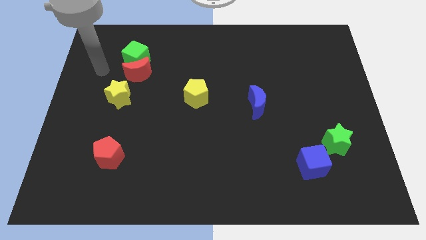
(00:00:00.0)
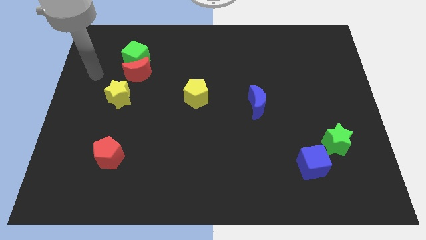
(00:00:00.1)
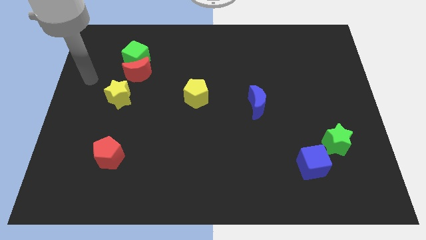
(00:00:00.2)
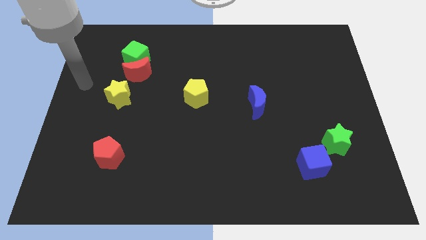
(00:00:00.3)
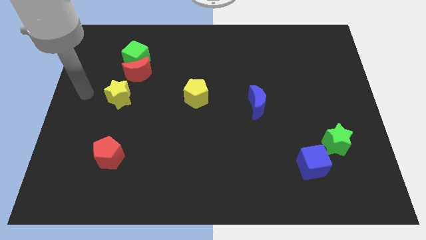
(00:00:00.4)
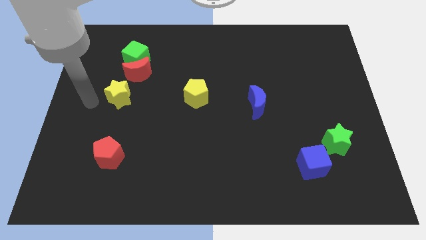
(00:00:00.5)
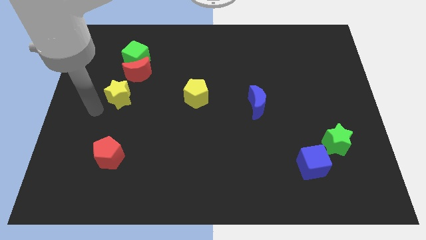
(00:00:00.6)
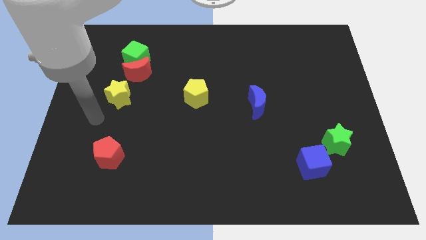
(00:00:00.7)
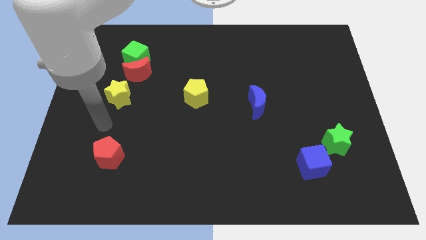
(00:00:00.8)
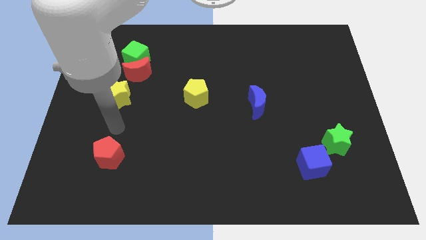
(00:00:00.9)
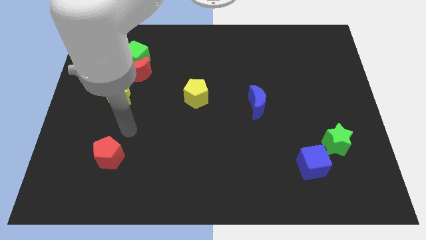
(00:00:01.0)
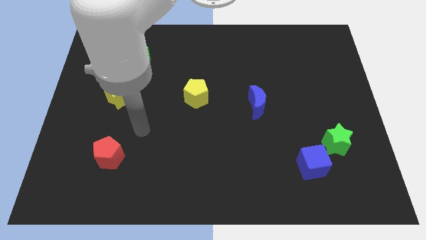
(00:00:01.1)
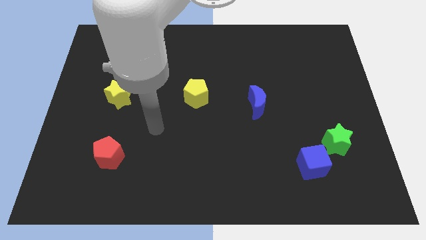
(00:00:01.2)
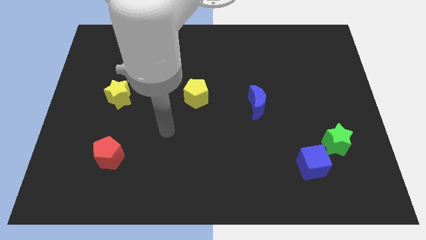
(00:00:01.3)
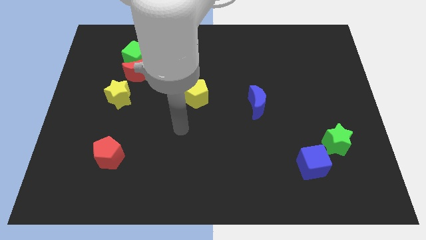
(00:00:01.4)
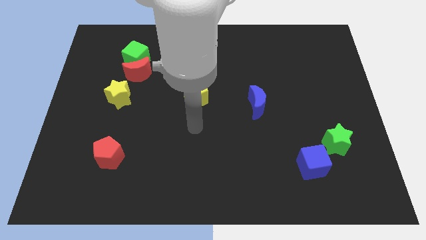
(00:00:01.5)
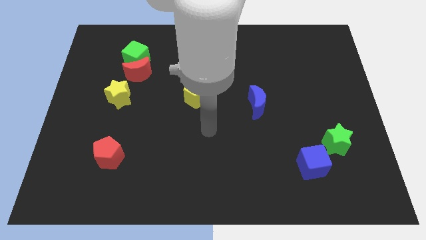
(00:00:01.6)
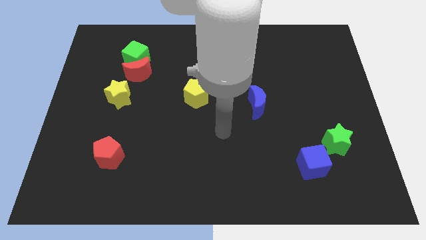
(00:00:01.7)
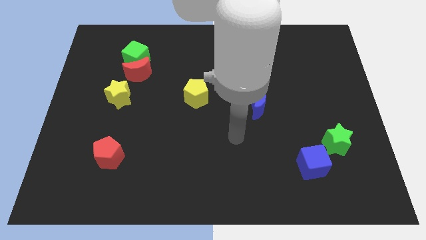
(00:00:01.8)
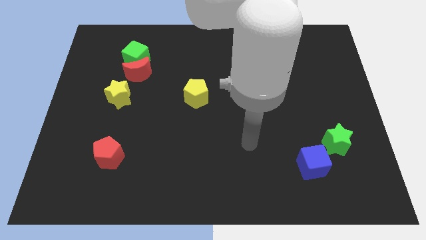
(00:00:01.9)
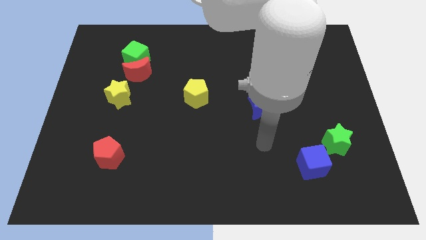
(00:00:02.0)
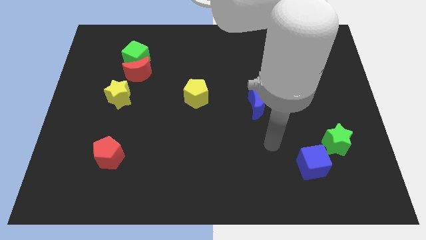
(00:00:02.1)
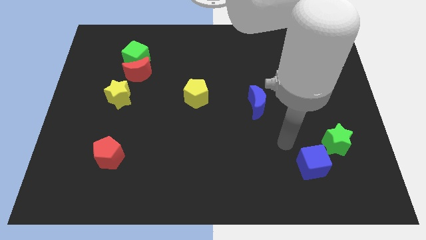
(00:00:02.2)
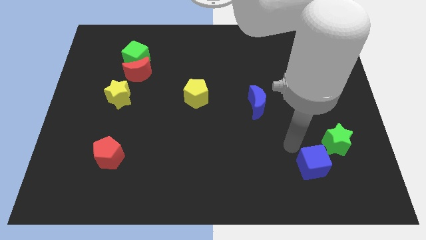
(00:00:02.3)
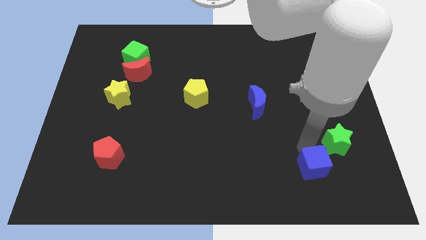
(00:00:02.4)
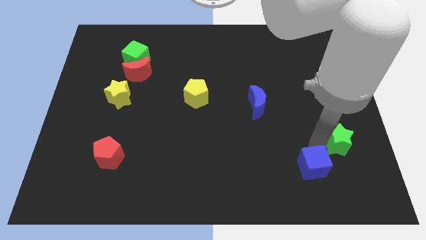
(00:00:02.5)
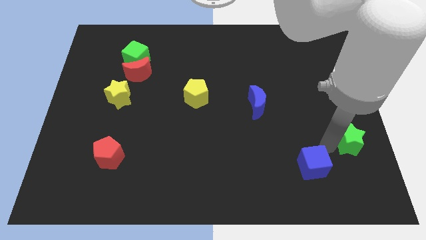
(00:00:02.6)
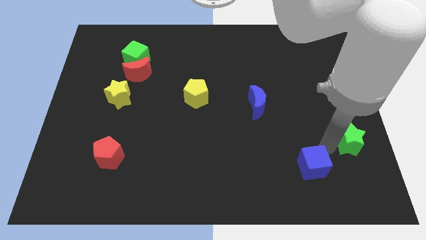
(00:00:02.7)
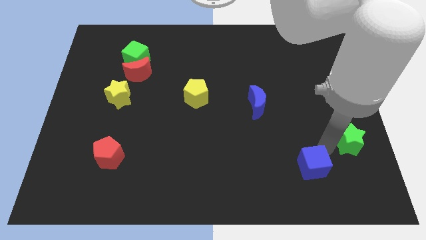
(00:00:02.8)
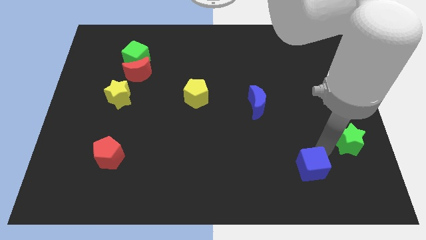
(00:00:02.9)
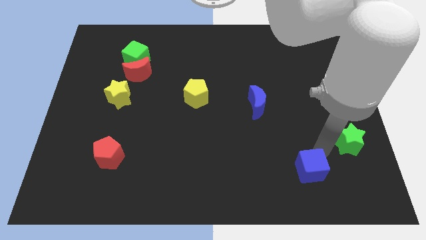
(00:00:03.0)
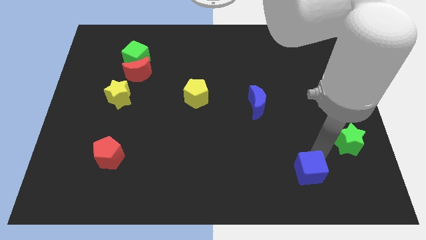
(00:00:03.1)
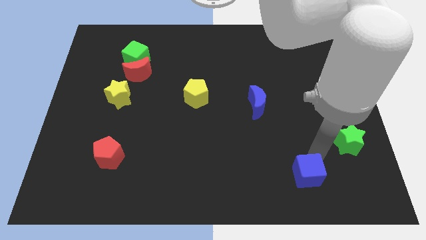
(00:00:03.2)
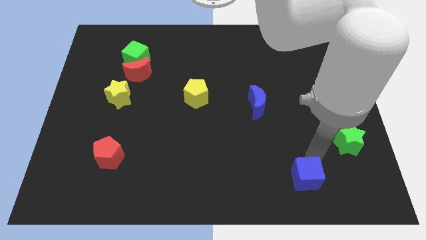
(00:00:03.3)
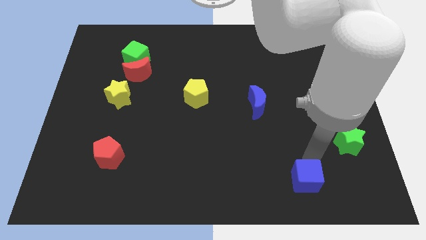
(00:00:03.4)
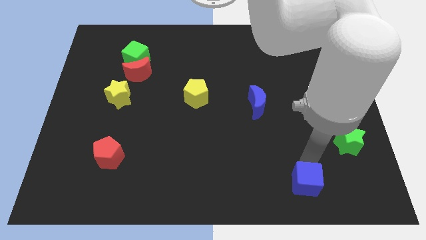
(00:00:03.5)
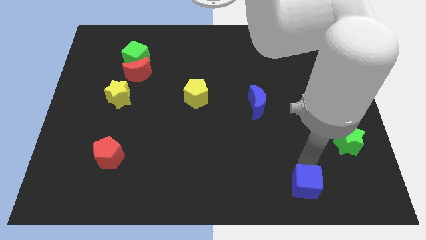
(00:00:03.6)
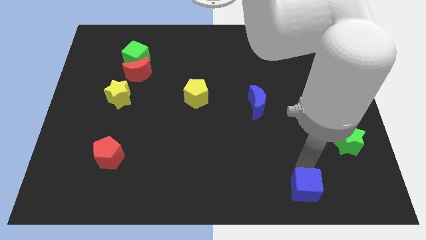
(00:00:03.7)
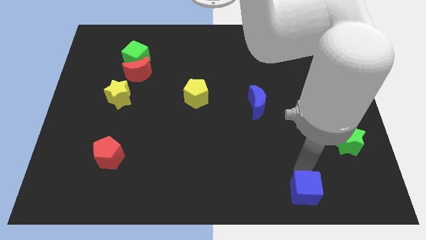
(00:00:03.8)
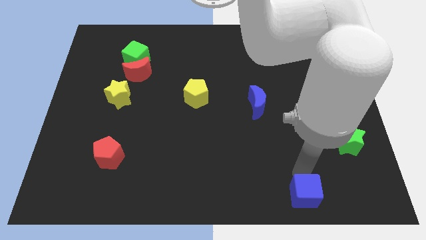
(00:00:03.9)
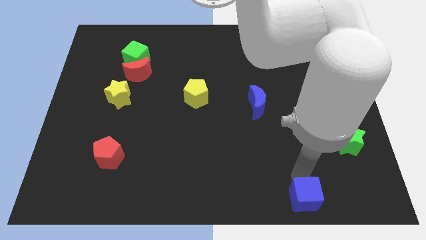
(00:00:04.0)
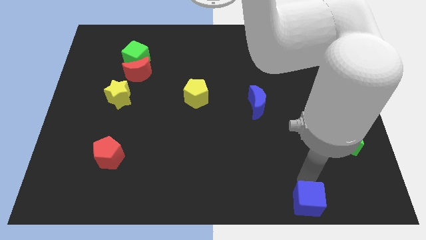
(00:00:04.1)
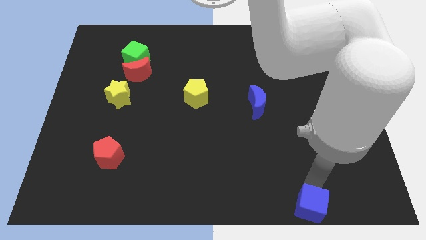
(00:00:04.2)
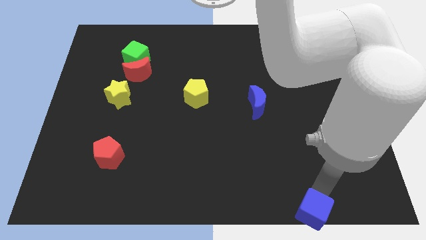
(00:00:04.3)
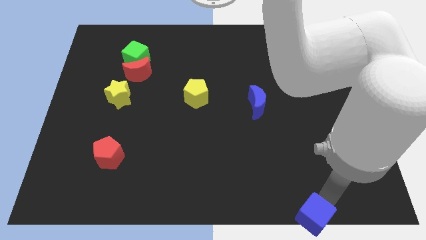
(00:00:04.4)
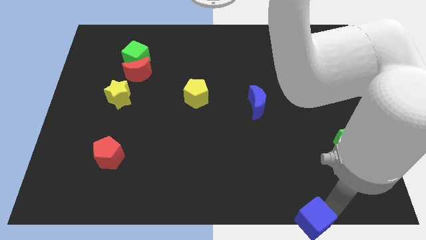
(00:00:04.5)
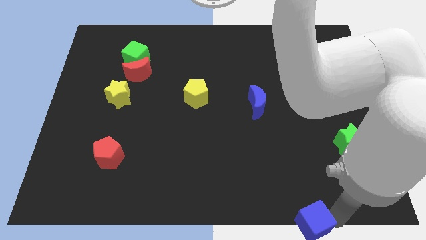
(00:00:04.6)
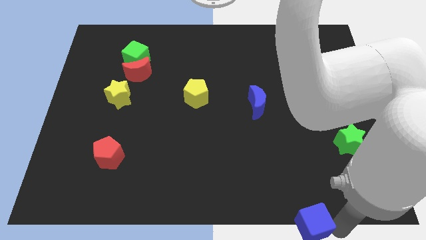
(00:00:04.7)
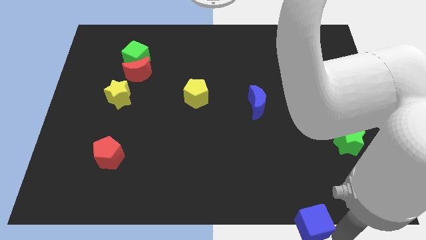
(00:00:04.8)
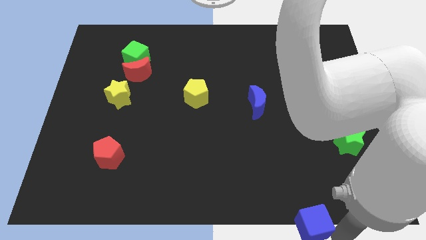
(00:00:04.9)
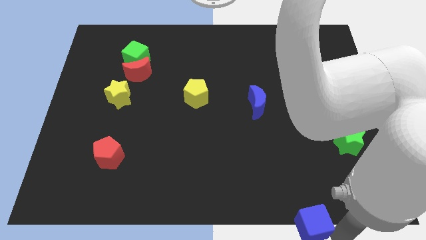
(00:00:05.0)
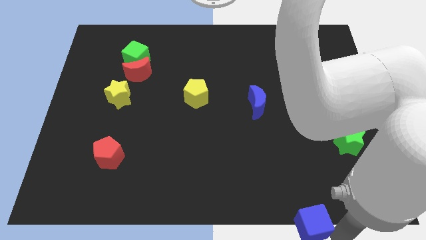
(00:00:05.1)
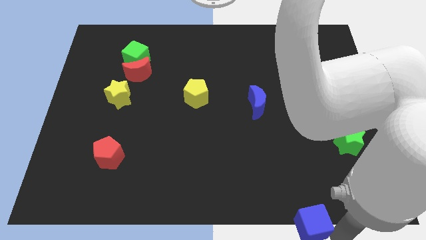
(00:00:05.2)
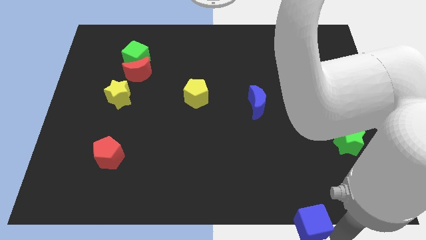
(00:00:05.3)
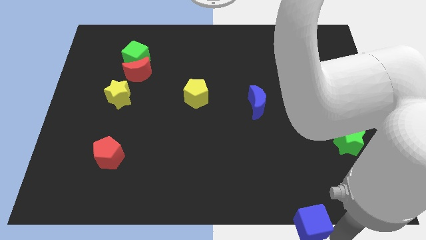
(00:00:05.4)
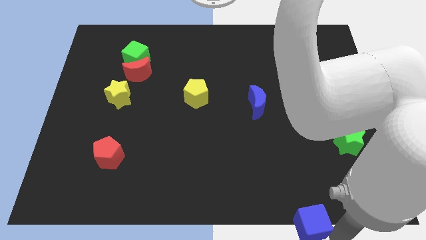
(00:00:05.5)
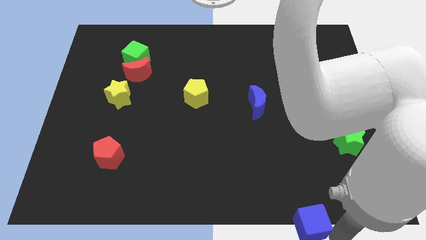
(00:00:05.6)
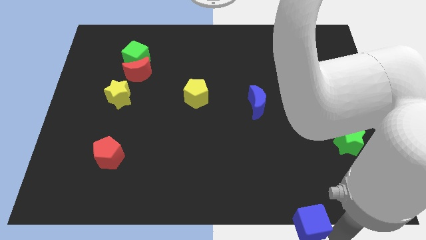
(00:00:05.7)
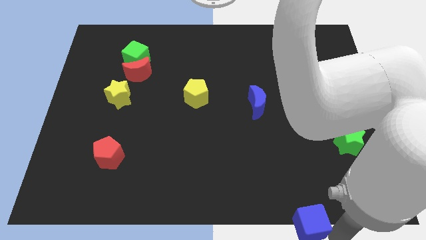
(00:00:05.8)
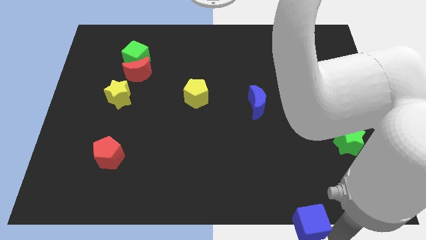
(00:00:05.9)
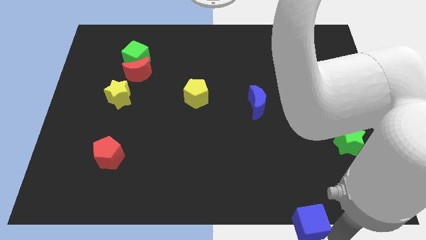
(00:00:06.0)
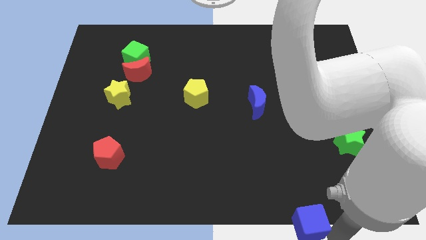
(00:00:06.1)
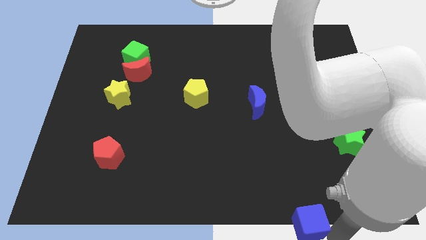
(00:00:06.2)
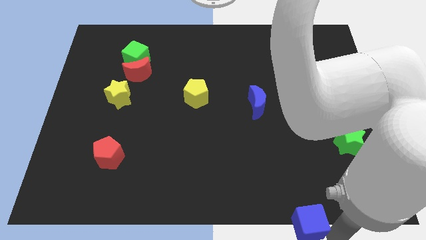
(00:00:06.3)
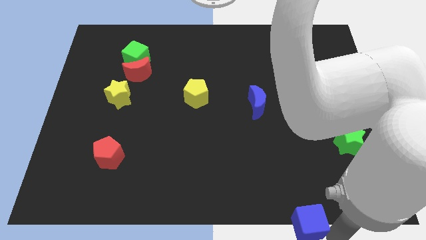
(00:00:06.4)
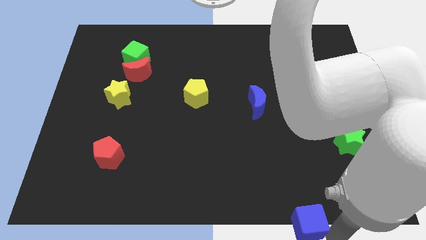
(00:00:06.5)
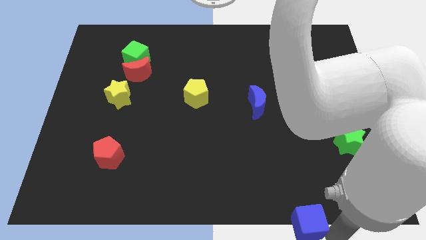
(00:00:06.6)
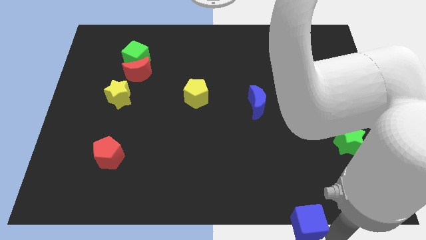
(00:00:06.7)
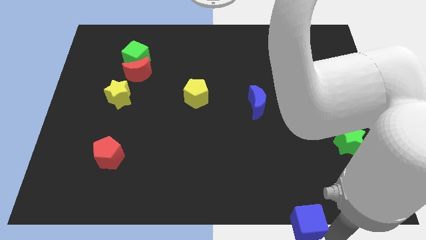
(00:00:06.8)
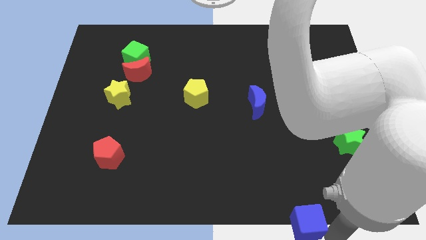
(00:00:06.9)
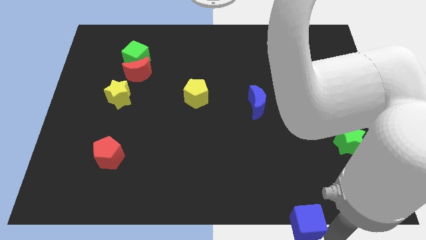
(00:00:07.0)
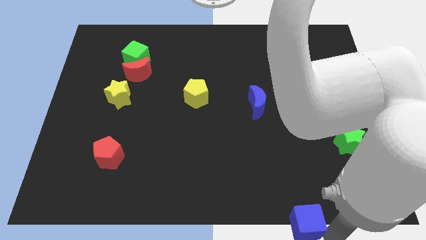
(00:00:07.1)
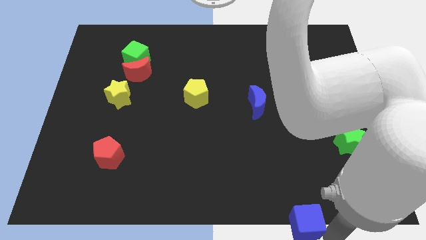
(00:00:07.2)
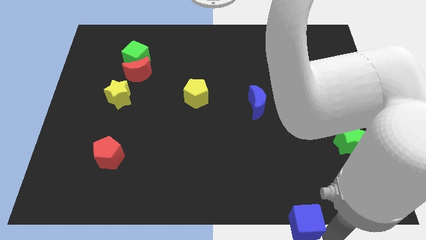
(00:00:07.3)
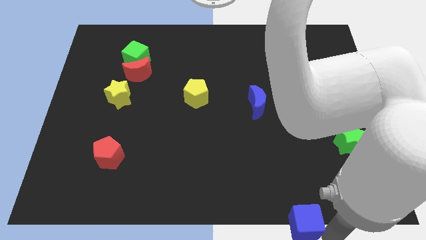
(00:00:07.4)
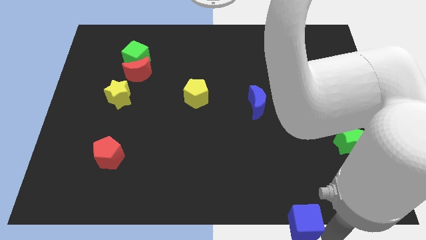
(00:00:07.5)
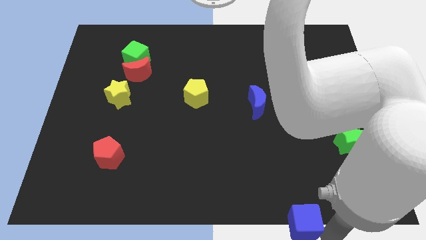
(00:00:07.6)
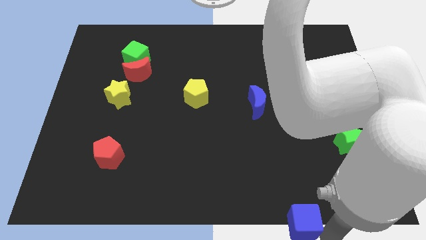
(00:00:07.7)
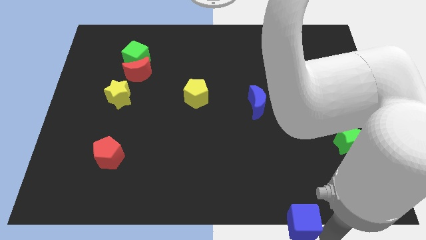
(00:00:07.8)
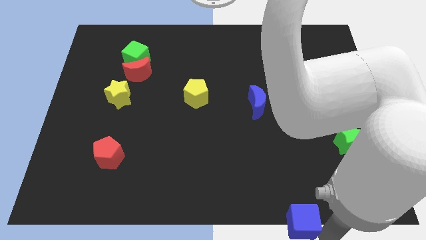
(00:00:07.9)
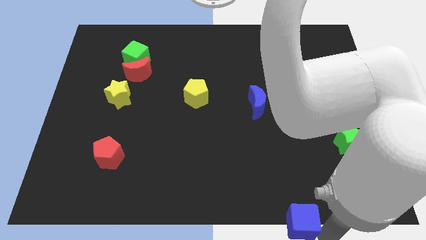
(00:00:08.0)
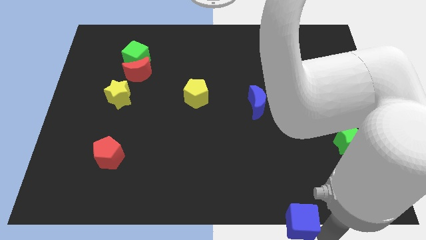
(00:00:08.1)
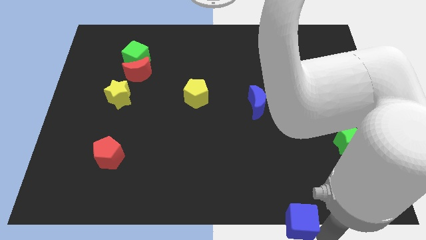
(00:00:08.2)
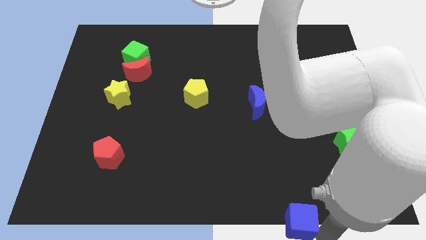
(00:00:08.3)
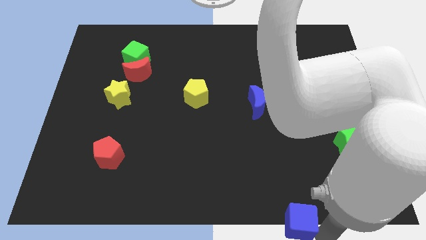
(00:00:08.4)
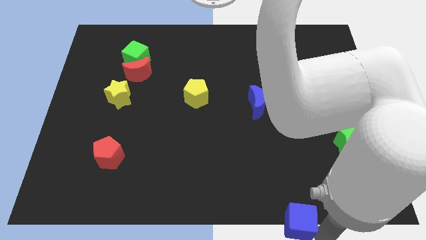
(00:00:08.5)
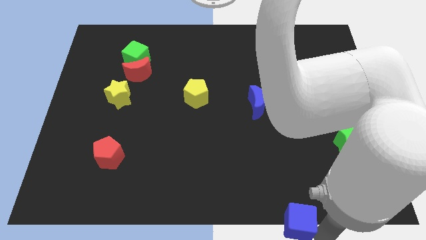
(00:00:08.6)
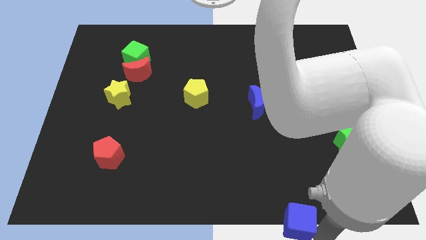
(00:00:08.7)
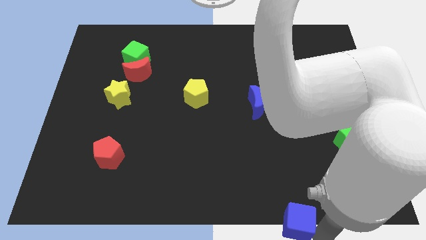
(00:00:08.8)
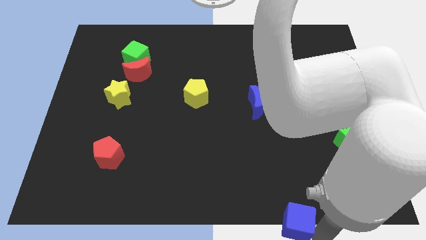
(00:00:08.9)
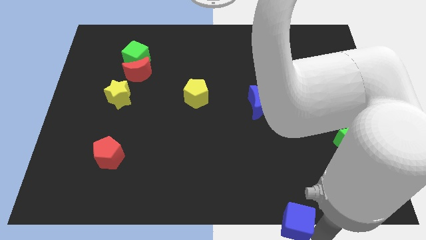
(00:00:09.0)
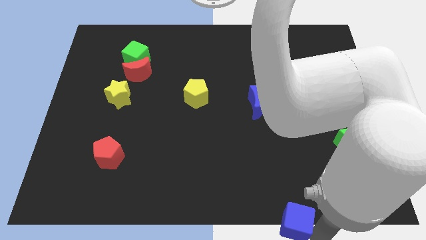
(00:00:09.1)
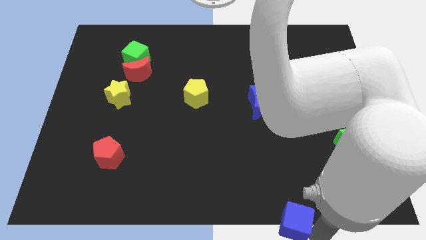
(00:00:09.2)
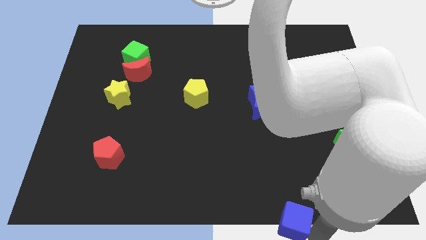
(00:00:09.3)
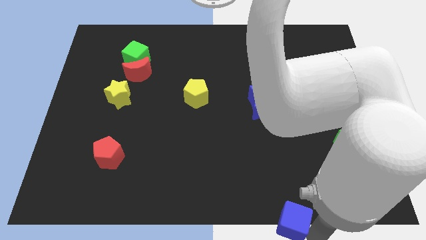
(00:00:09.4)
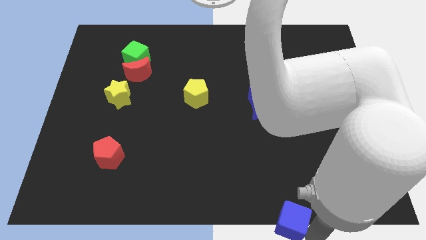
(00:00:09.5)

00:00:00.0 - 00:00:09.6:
put the blue cube to the bottom side
